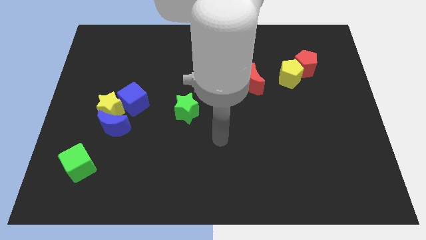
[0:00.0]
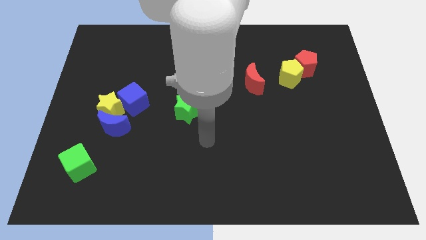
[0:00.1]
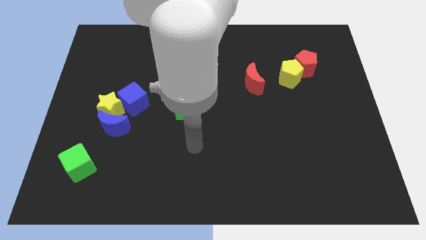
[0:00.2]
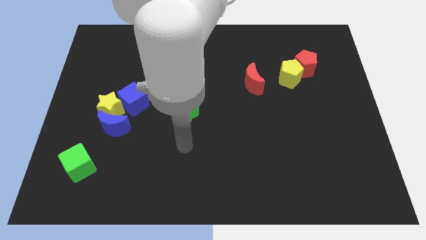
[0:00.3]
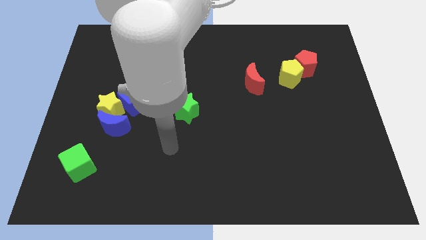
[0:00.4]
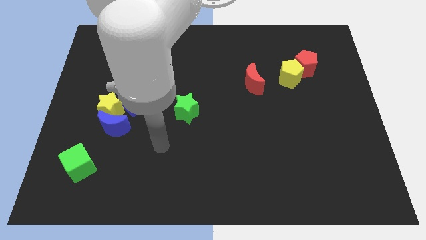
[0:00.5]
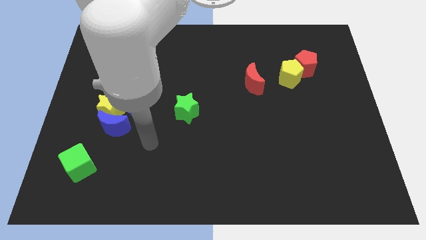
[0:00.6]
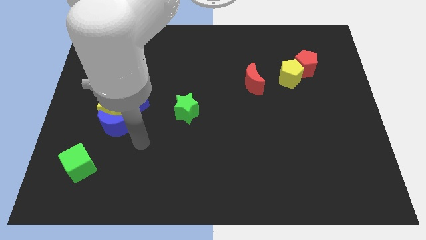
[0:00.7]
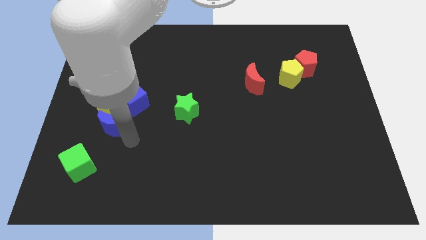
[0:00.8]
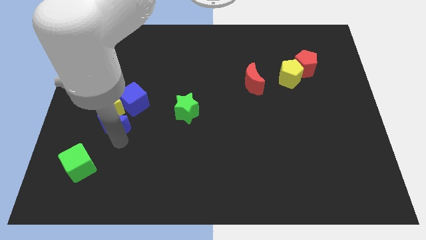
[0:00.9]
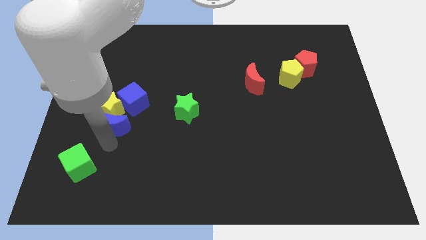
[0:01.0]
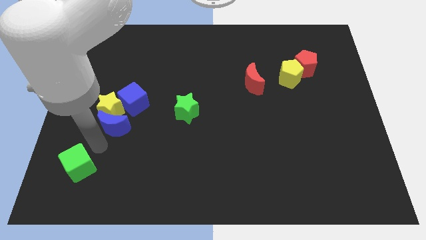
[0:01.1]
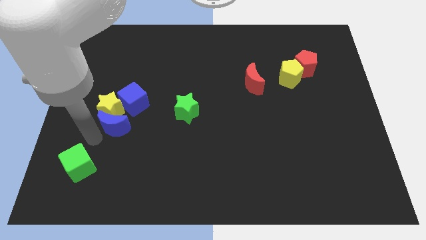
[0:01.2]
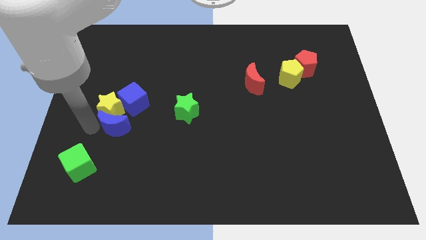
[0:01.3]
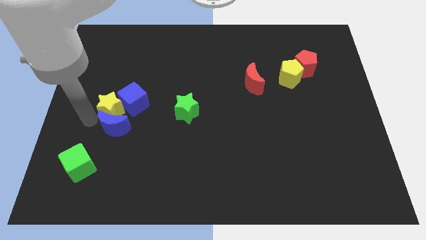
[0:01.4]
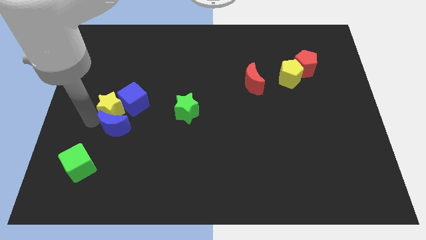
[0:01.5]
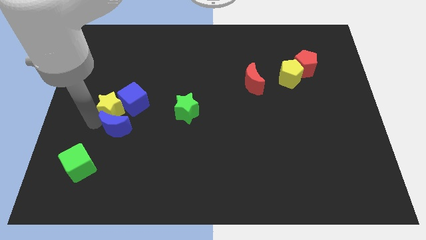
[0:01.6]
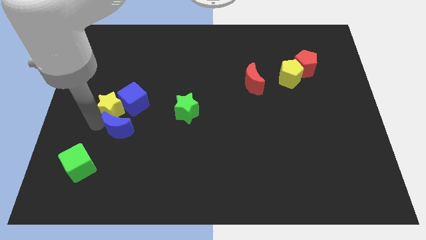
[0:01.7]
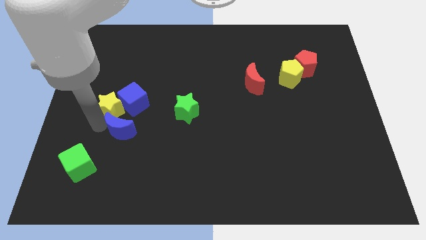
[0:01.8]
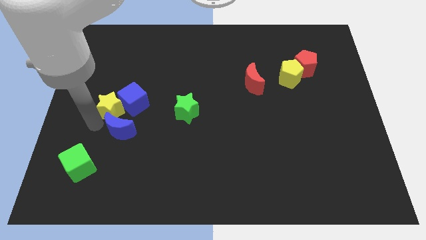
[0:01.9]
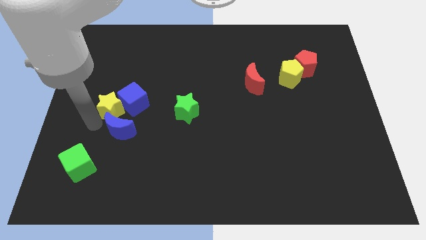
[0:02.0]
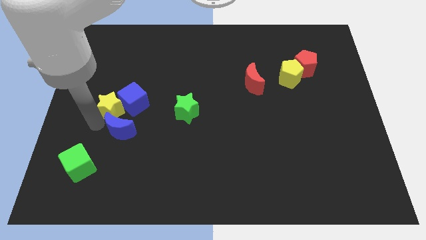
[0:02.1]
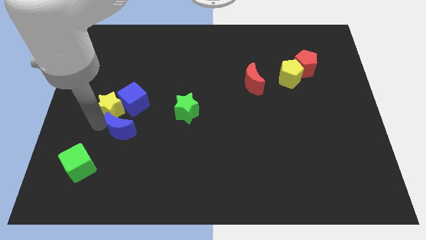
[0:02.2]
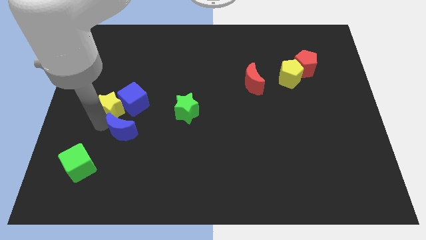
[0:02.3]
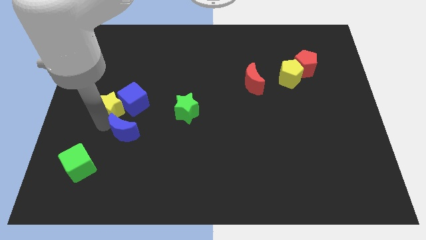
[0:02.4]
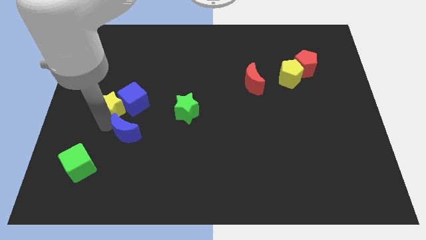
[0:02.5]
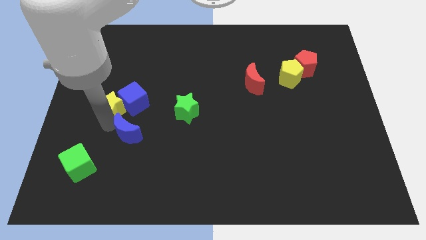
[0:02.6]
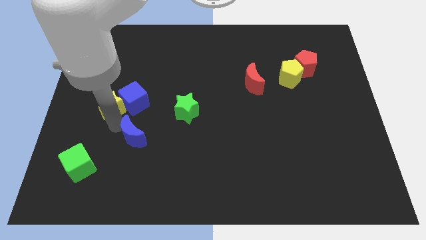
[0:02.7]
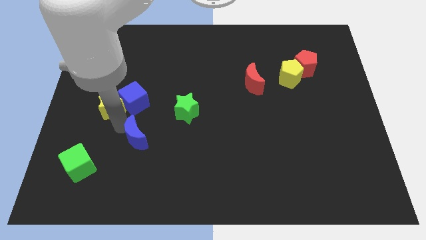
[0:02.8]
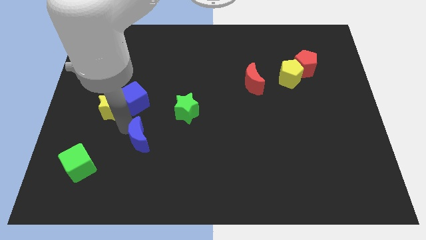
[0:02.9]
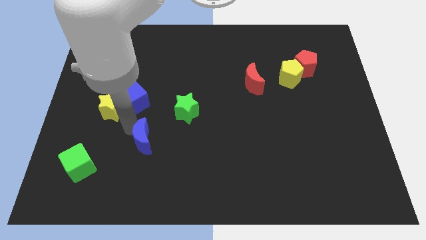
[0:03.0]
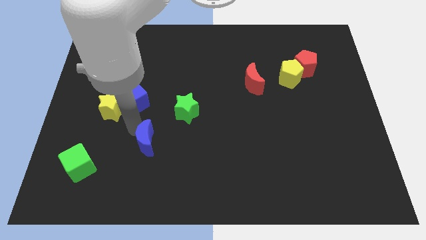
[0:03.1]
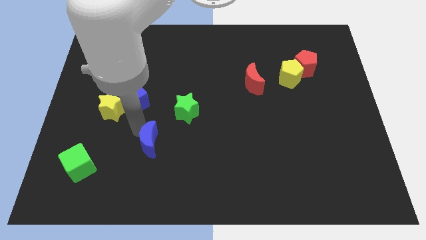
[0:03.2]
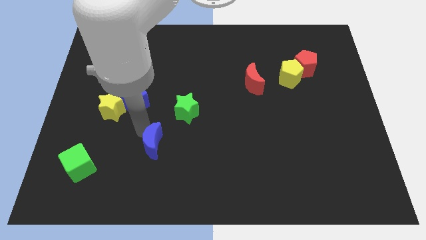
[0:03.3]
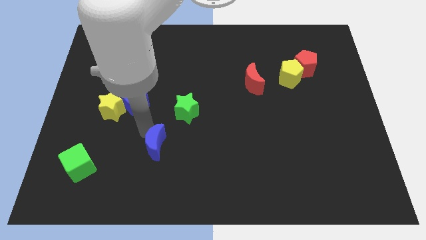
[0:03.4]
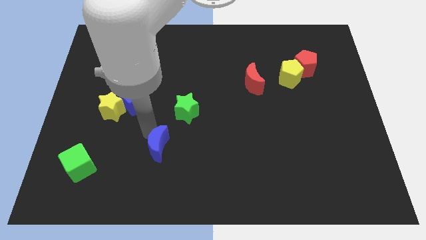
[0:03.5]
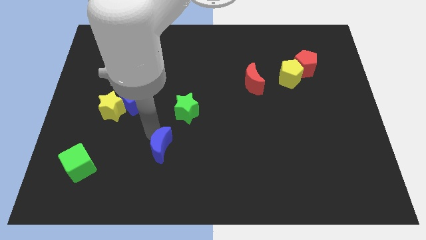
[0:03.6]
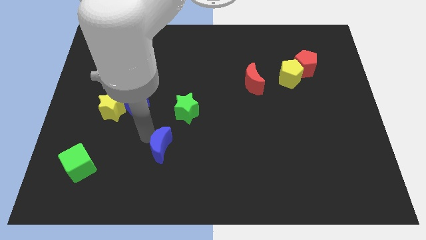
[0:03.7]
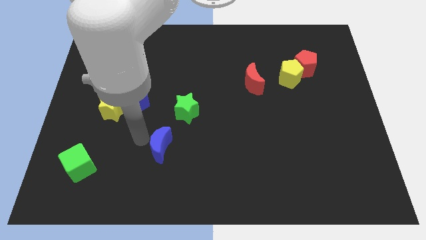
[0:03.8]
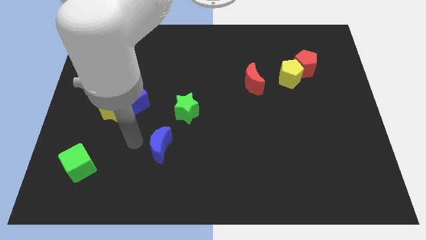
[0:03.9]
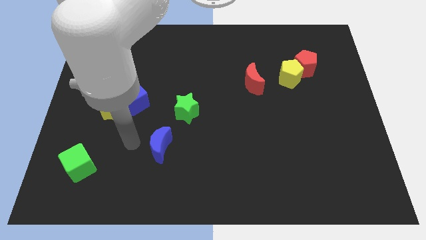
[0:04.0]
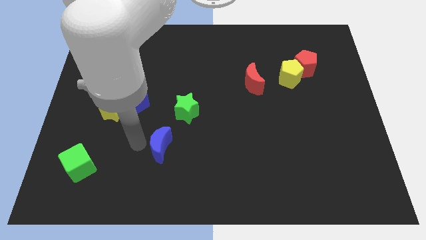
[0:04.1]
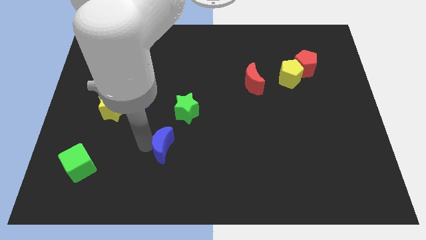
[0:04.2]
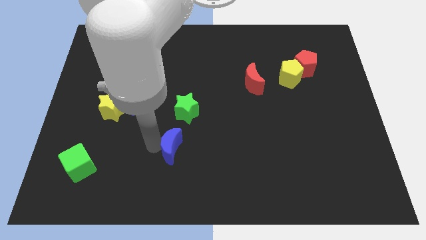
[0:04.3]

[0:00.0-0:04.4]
slide the blue moon below the green star

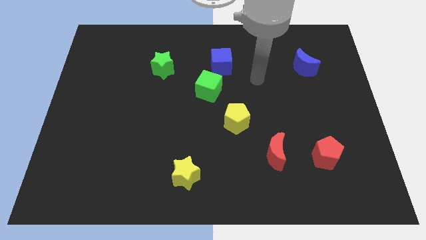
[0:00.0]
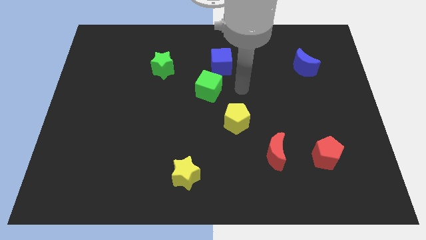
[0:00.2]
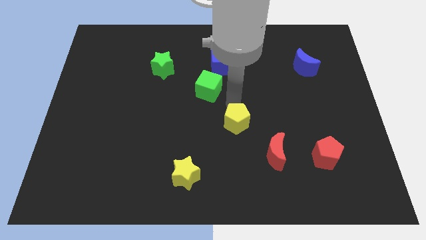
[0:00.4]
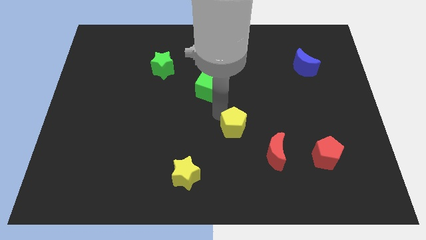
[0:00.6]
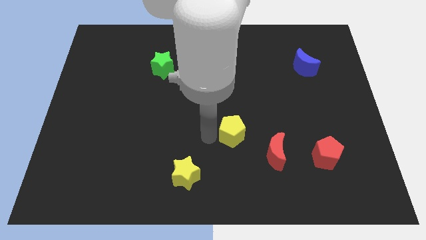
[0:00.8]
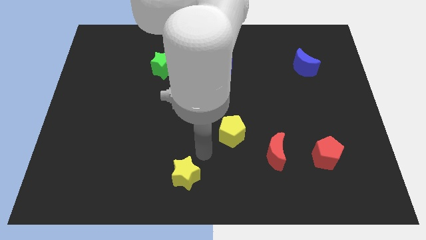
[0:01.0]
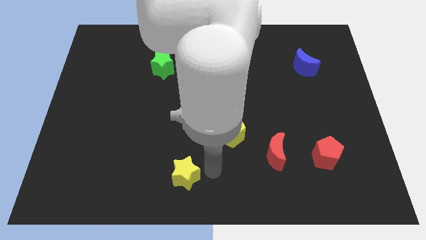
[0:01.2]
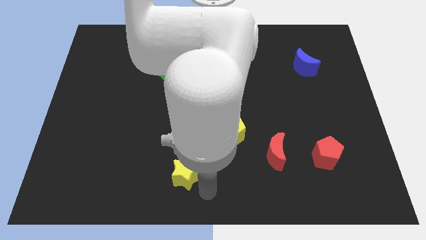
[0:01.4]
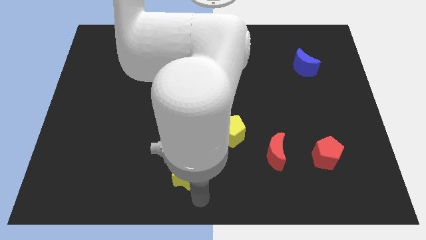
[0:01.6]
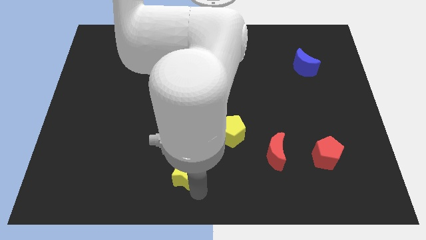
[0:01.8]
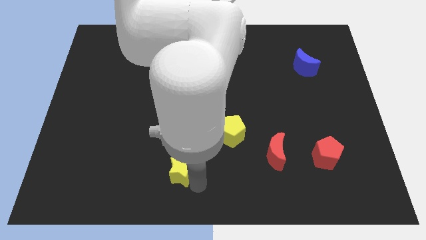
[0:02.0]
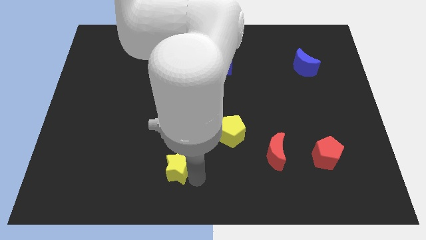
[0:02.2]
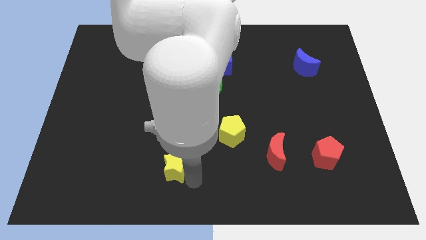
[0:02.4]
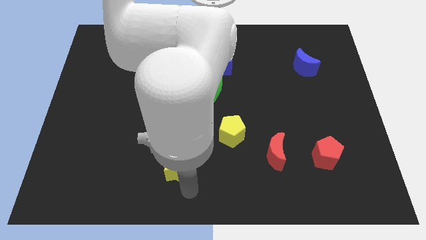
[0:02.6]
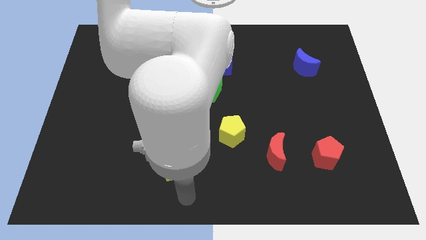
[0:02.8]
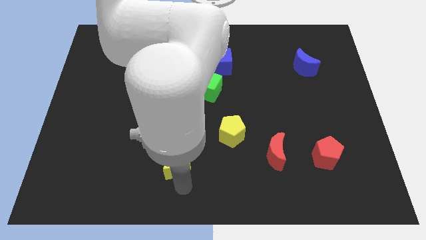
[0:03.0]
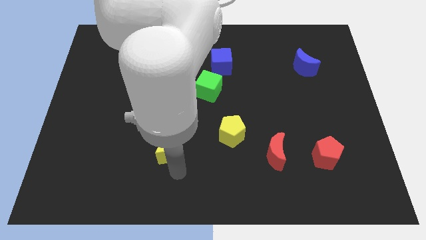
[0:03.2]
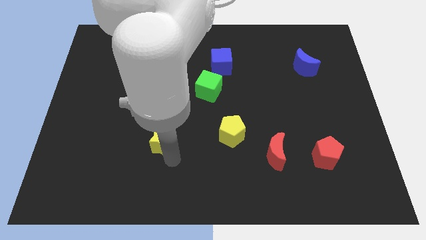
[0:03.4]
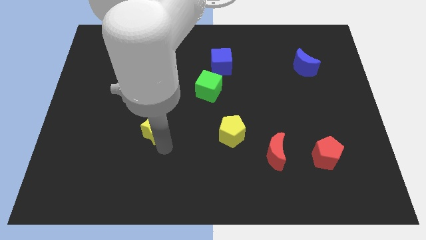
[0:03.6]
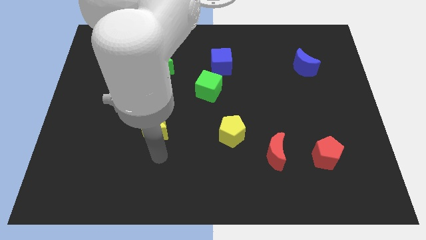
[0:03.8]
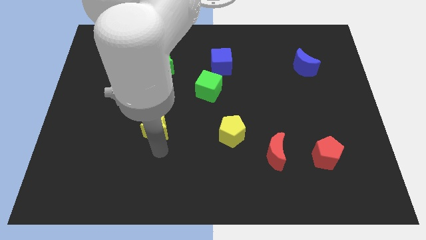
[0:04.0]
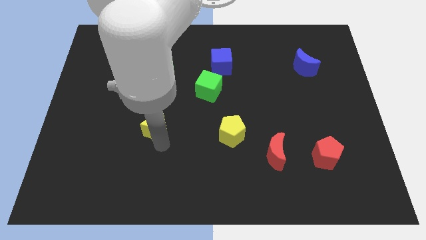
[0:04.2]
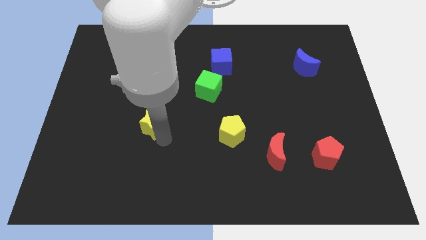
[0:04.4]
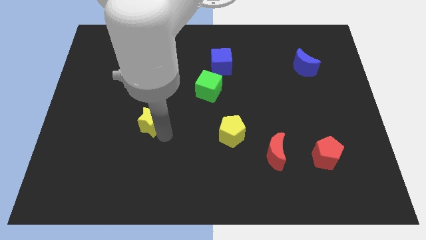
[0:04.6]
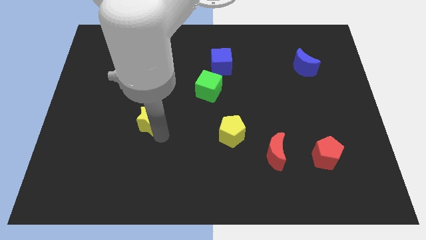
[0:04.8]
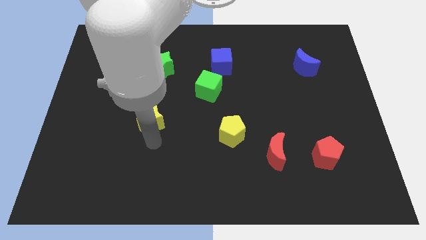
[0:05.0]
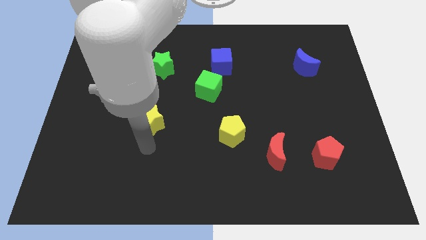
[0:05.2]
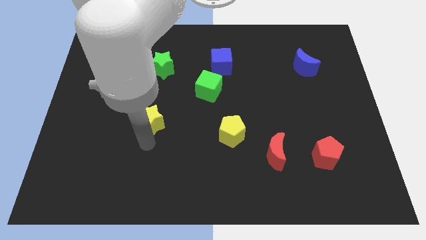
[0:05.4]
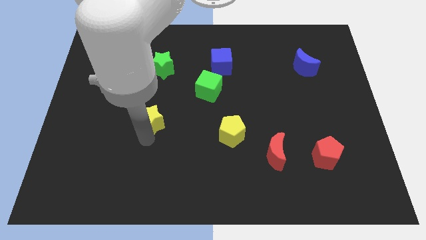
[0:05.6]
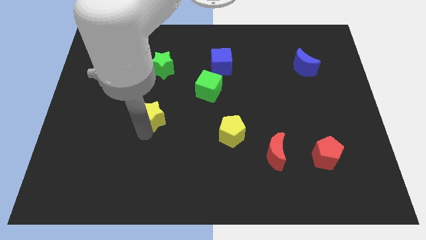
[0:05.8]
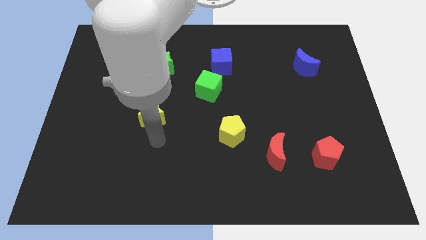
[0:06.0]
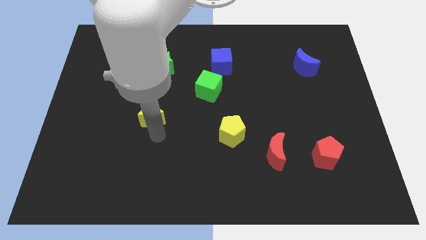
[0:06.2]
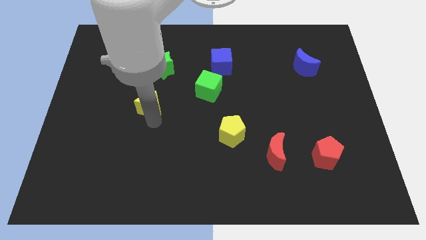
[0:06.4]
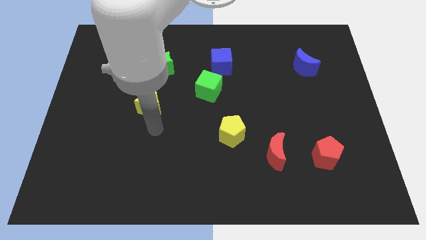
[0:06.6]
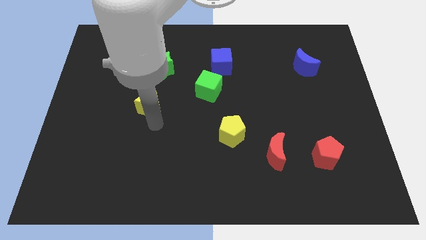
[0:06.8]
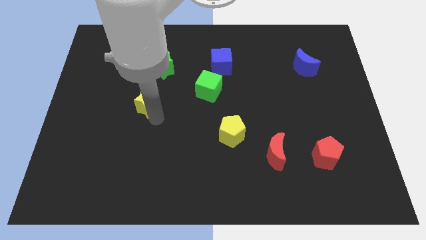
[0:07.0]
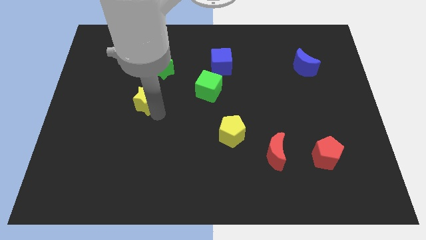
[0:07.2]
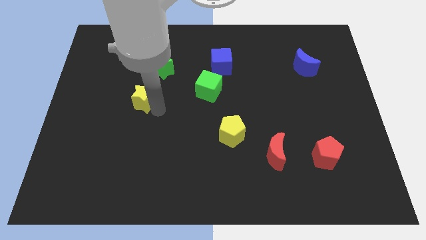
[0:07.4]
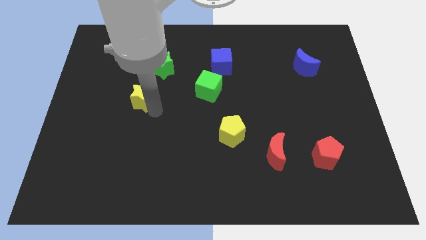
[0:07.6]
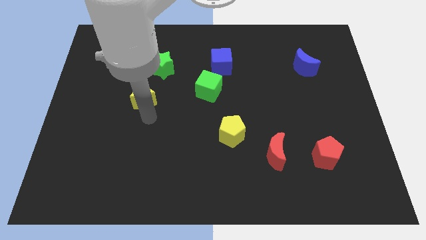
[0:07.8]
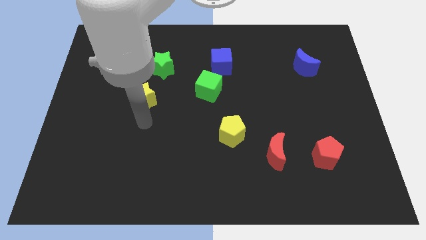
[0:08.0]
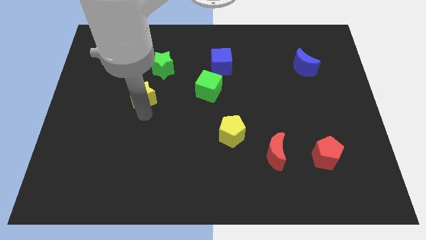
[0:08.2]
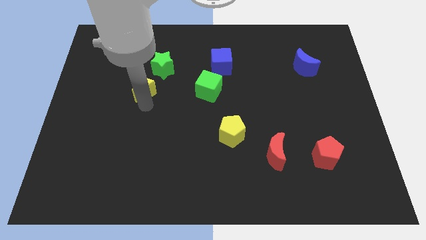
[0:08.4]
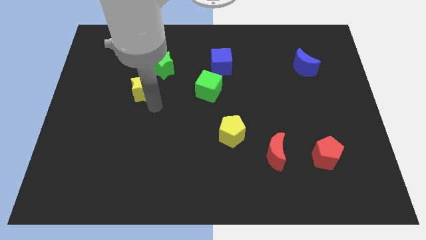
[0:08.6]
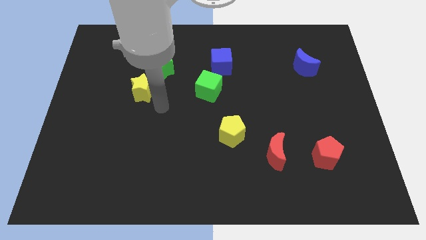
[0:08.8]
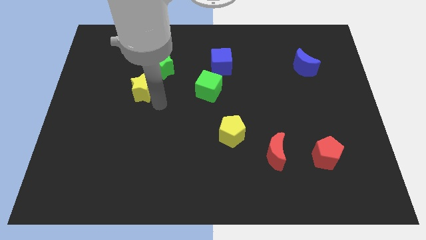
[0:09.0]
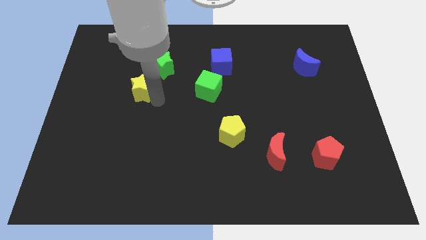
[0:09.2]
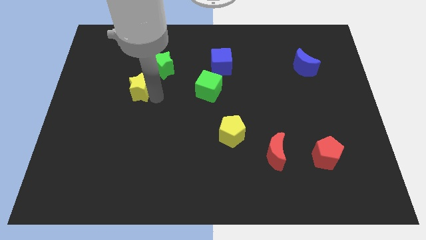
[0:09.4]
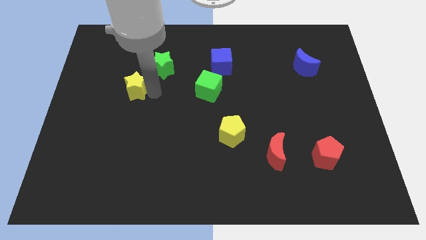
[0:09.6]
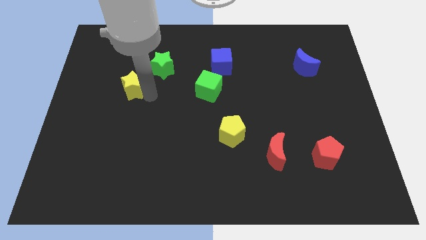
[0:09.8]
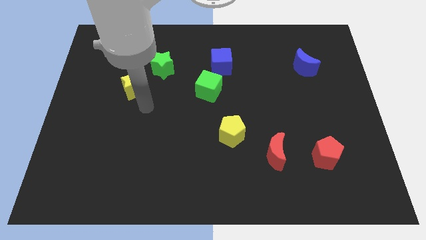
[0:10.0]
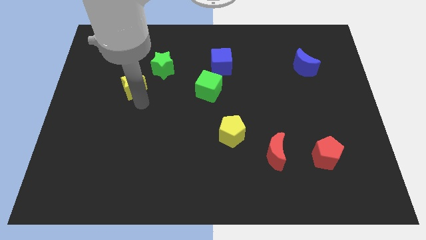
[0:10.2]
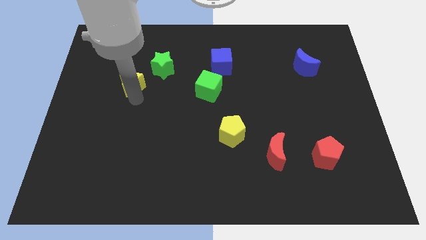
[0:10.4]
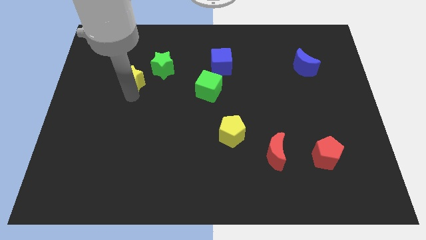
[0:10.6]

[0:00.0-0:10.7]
put the yellow star left of the green star
